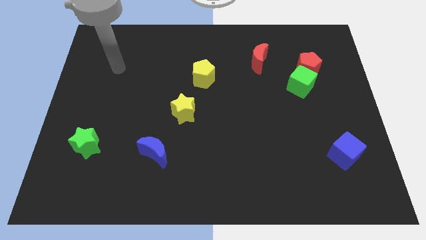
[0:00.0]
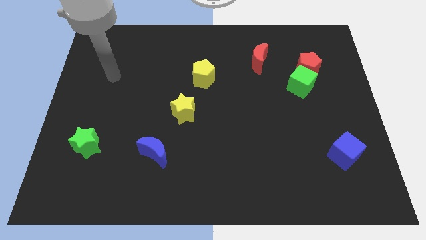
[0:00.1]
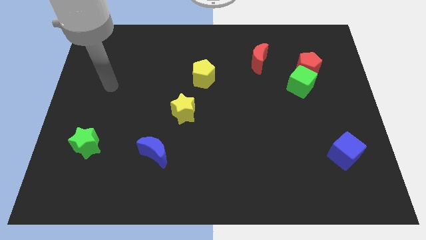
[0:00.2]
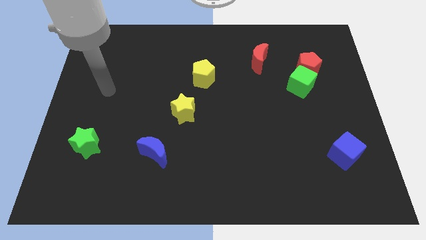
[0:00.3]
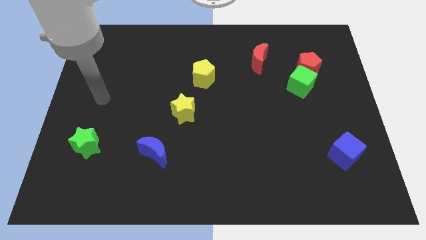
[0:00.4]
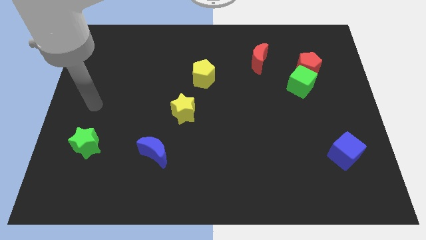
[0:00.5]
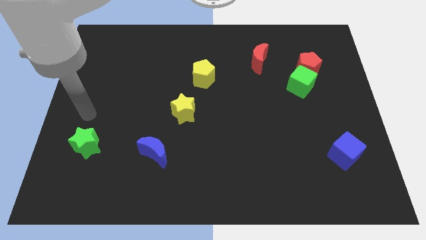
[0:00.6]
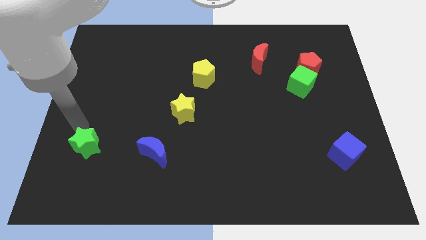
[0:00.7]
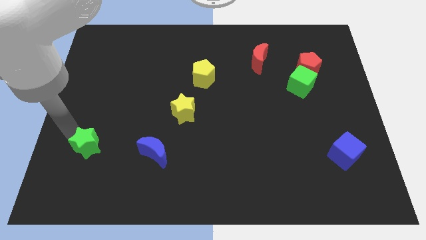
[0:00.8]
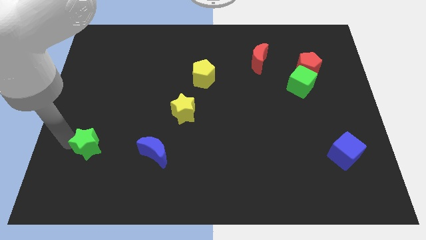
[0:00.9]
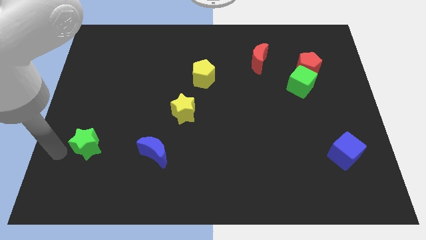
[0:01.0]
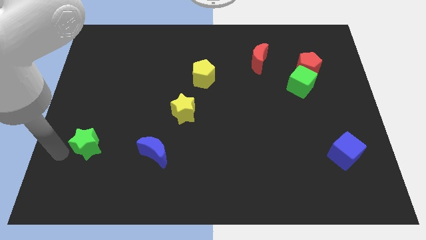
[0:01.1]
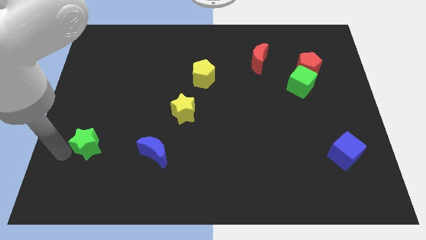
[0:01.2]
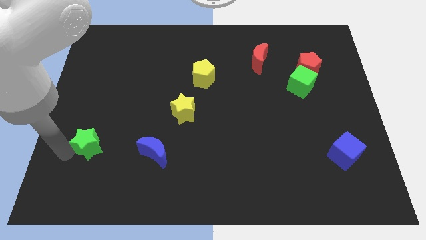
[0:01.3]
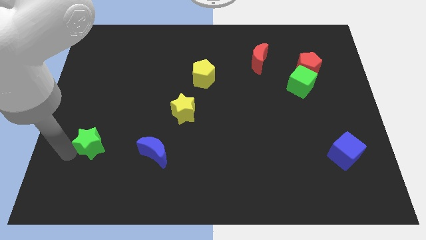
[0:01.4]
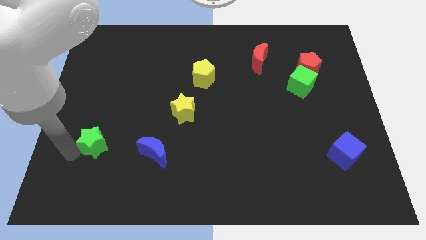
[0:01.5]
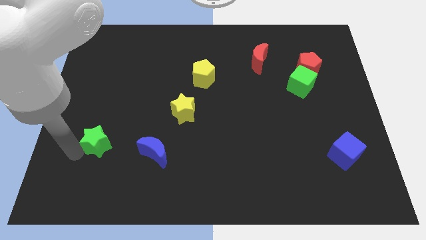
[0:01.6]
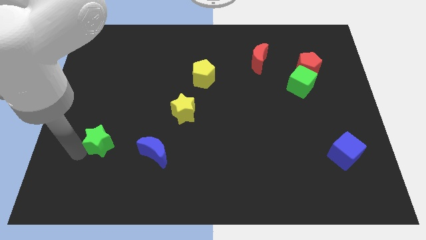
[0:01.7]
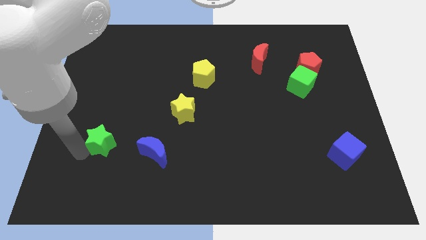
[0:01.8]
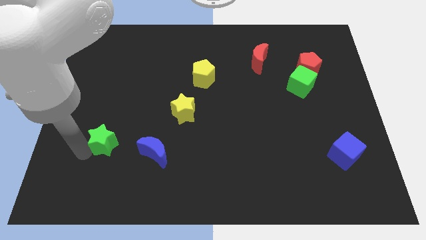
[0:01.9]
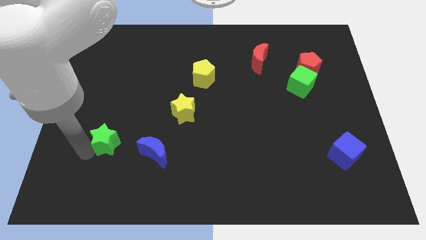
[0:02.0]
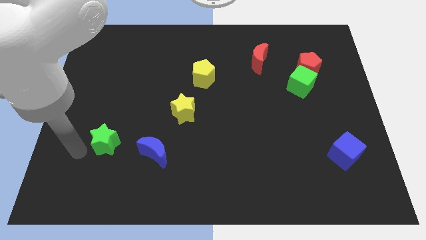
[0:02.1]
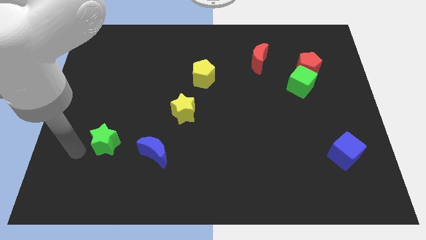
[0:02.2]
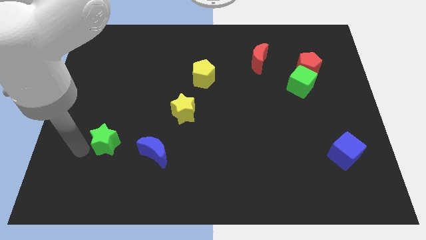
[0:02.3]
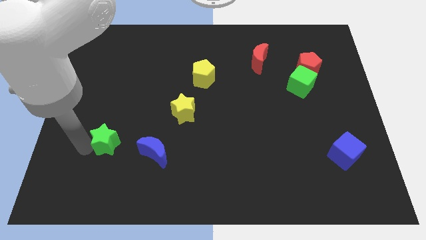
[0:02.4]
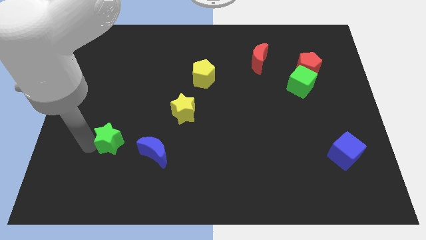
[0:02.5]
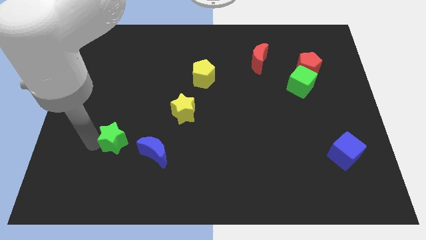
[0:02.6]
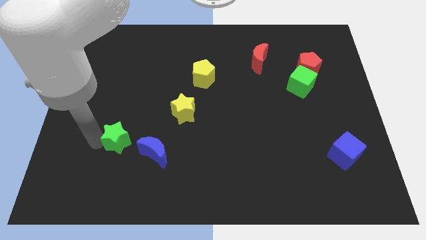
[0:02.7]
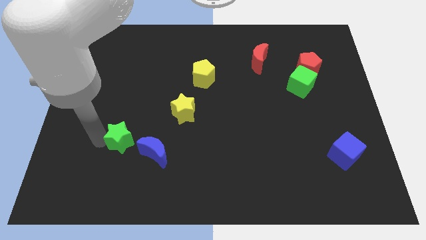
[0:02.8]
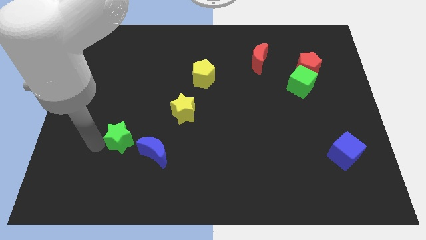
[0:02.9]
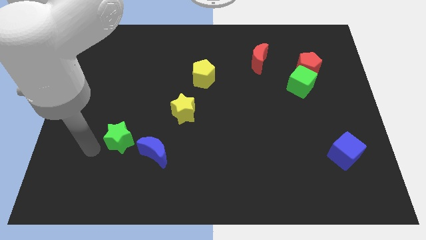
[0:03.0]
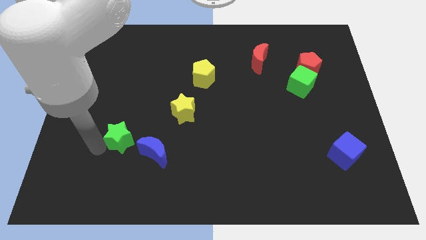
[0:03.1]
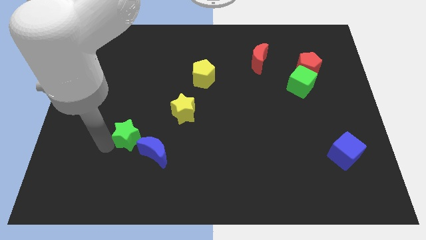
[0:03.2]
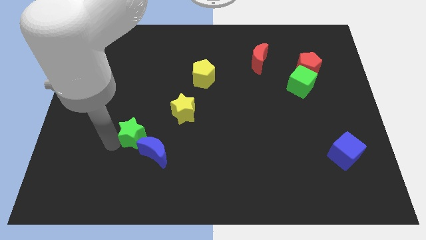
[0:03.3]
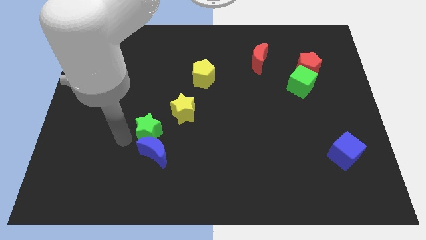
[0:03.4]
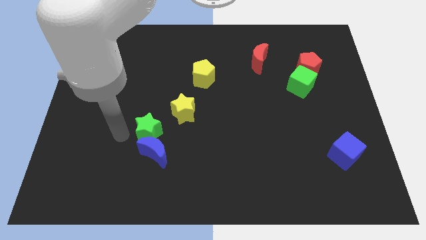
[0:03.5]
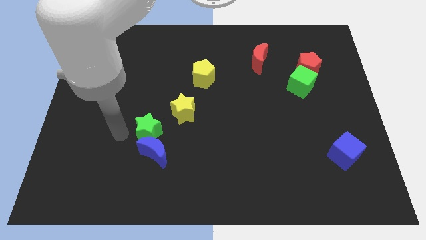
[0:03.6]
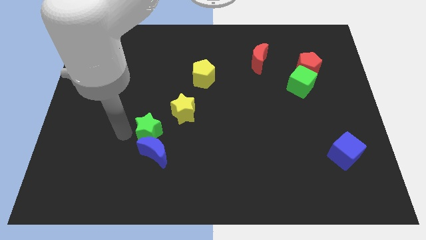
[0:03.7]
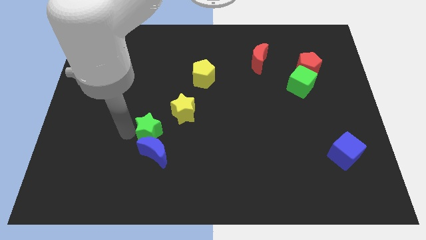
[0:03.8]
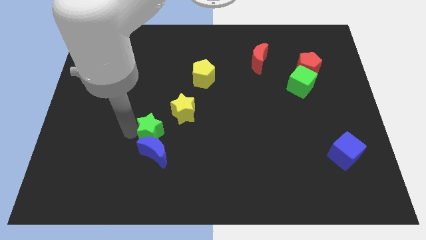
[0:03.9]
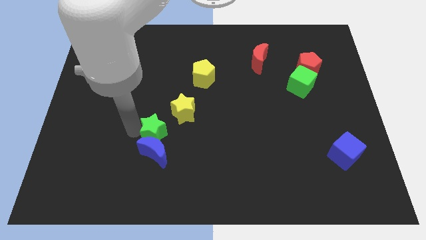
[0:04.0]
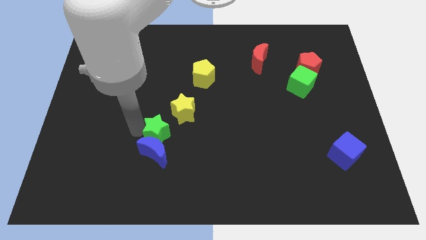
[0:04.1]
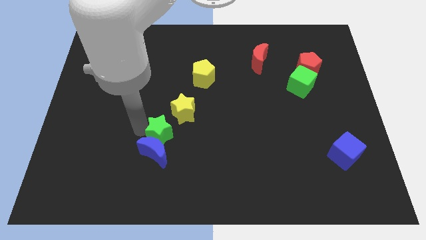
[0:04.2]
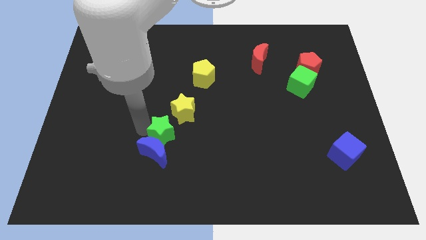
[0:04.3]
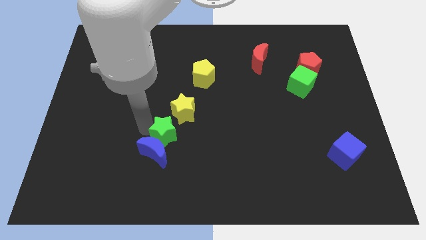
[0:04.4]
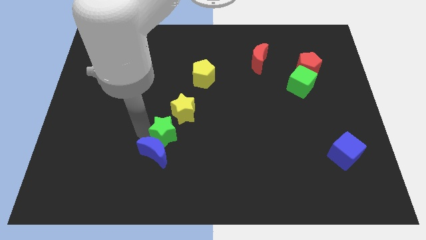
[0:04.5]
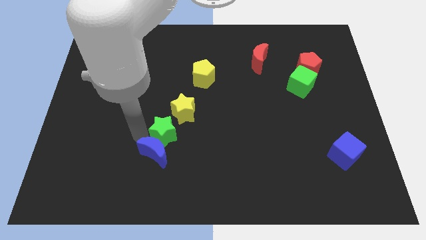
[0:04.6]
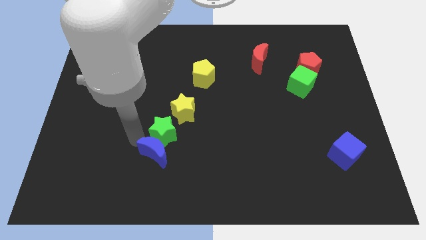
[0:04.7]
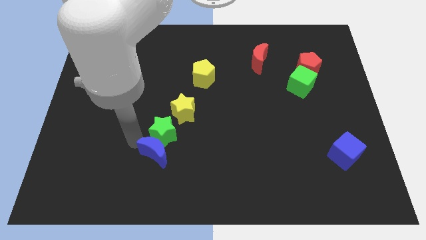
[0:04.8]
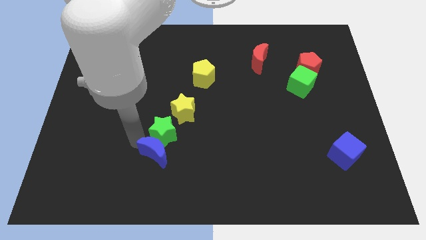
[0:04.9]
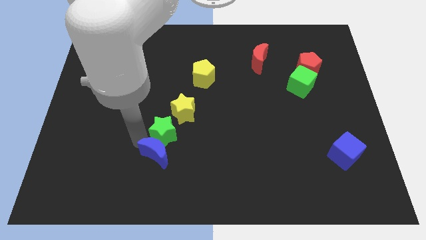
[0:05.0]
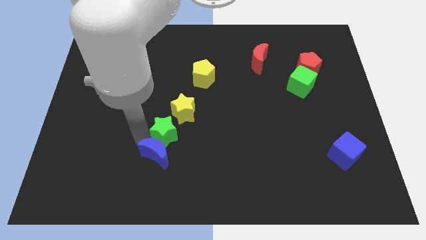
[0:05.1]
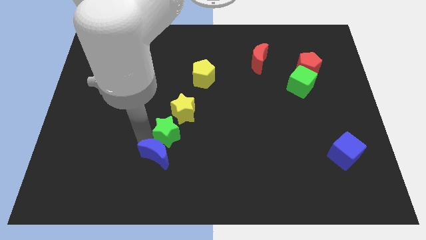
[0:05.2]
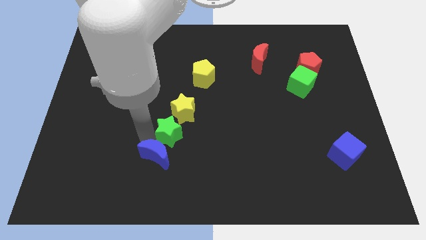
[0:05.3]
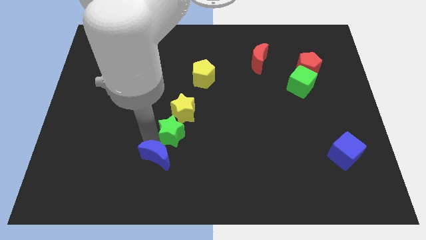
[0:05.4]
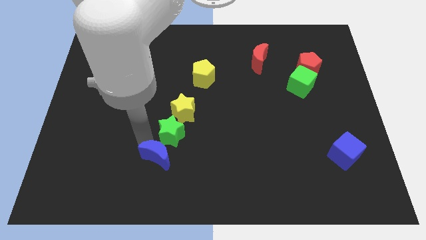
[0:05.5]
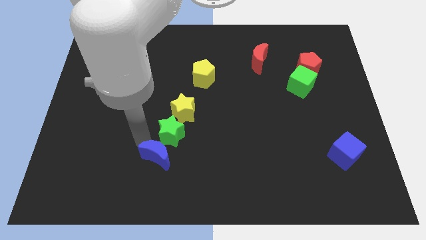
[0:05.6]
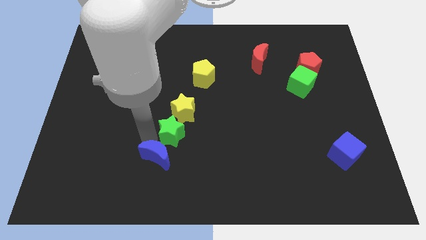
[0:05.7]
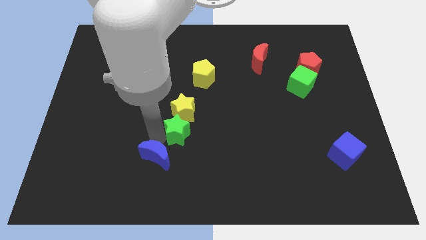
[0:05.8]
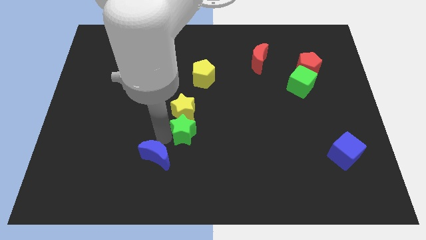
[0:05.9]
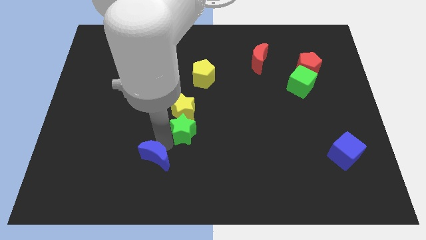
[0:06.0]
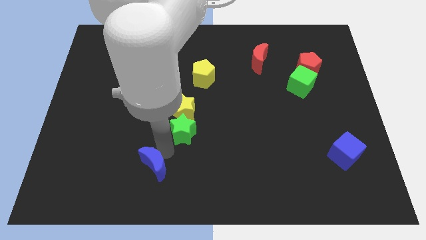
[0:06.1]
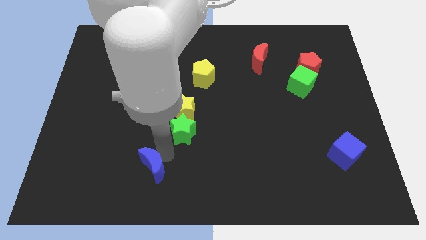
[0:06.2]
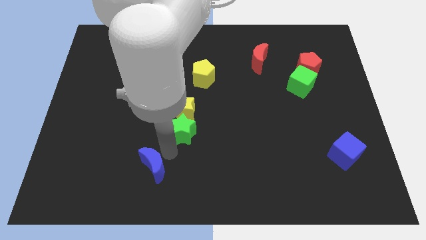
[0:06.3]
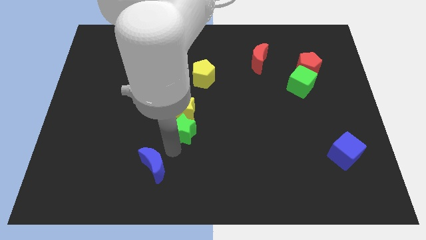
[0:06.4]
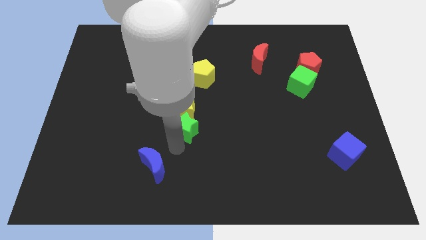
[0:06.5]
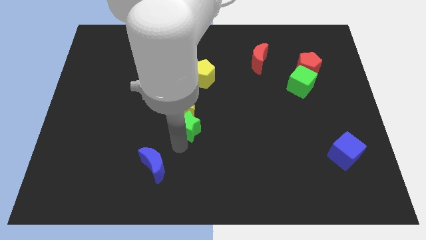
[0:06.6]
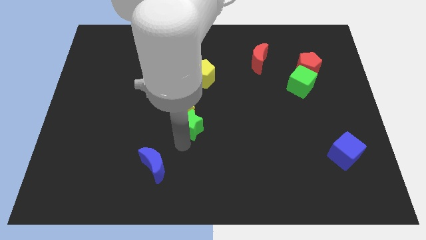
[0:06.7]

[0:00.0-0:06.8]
move the green star to the bottom side of the yellow pentagon

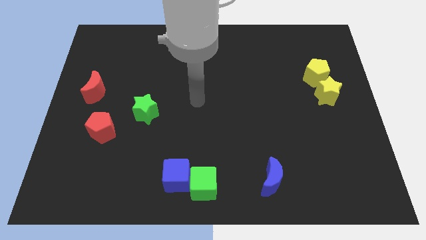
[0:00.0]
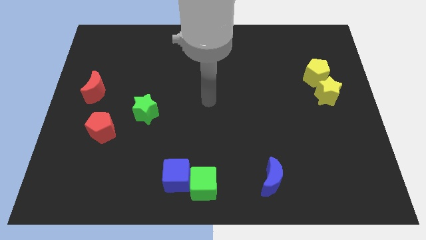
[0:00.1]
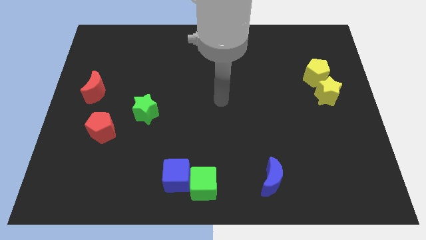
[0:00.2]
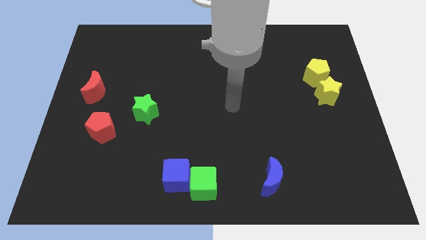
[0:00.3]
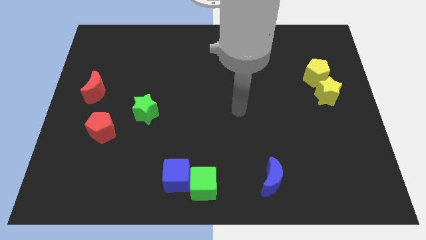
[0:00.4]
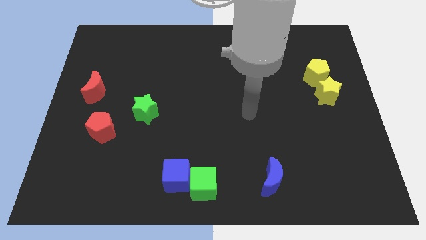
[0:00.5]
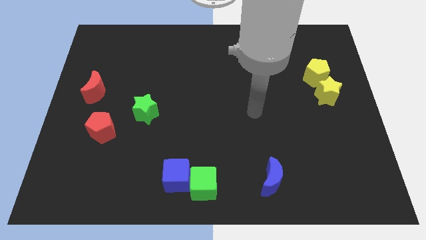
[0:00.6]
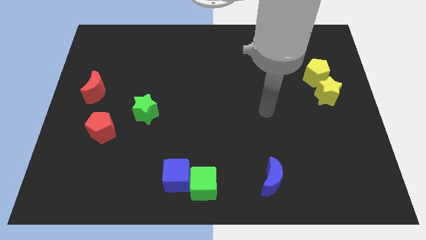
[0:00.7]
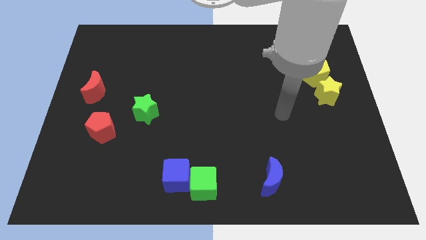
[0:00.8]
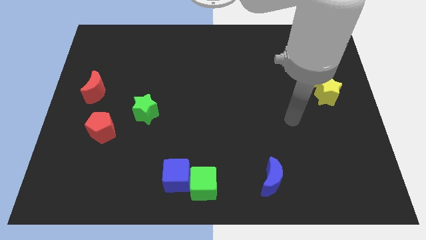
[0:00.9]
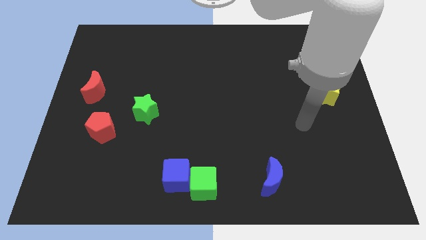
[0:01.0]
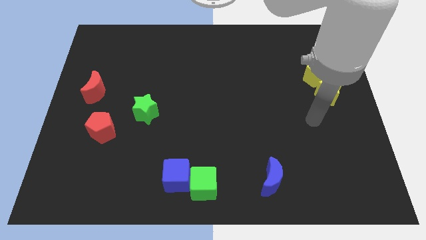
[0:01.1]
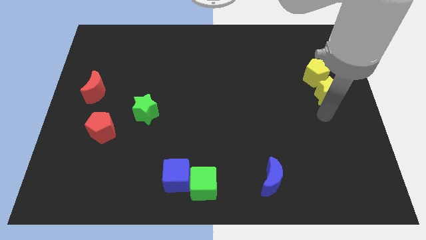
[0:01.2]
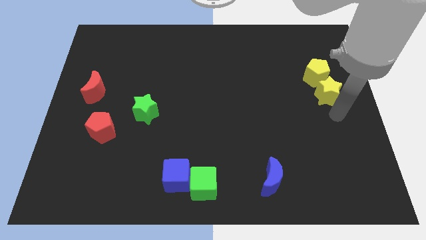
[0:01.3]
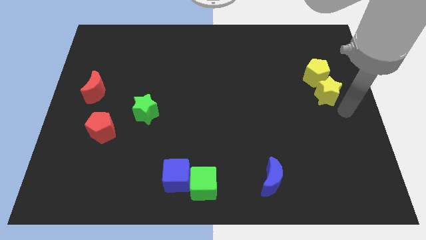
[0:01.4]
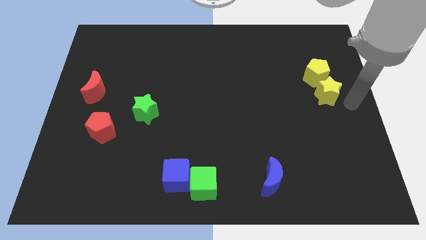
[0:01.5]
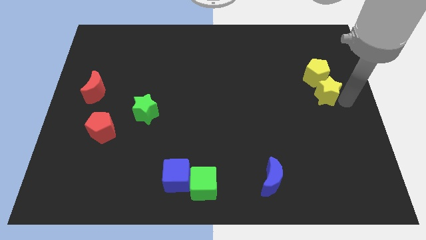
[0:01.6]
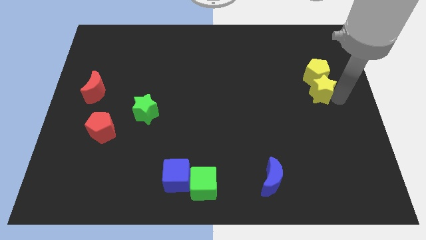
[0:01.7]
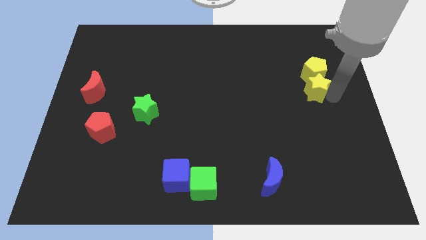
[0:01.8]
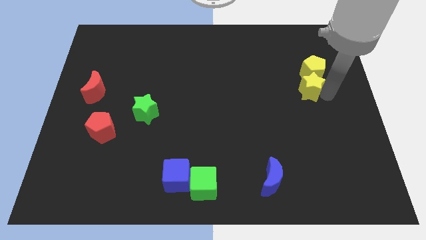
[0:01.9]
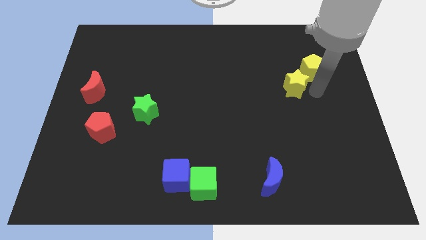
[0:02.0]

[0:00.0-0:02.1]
move the yellow star just left of the yellow pentagon
